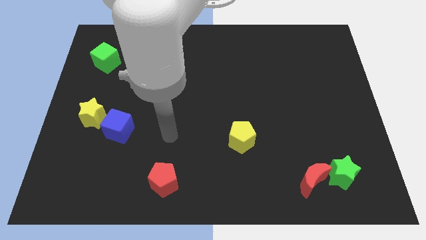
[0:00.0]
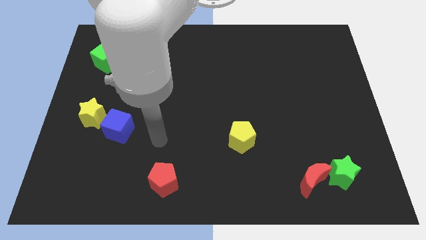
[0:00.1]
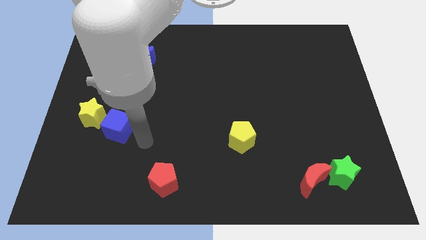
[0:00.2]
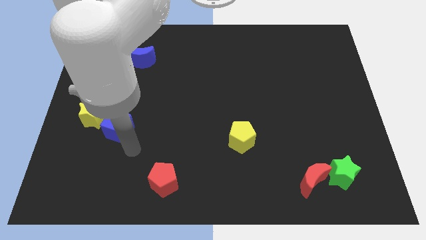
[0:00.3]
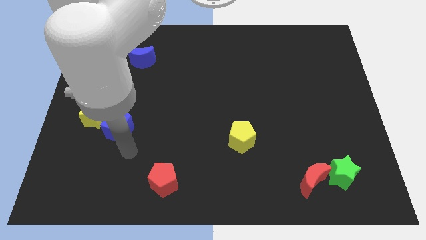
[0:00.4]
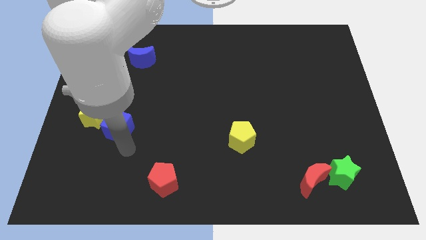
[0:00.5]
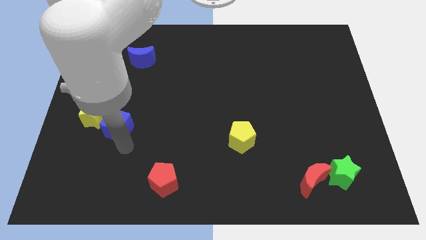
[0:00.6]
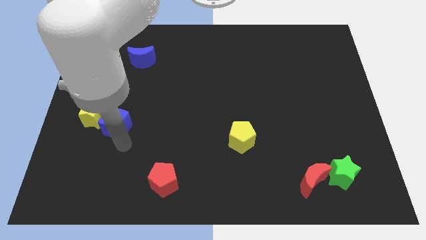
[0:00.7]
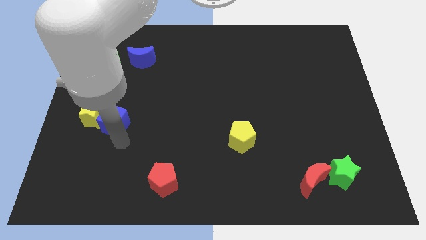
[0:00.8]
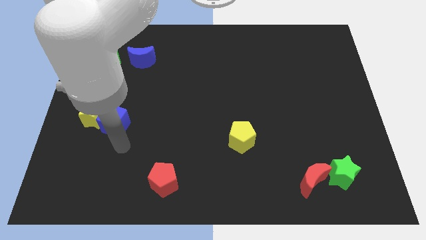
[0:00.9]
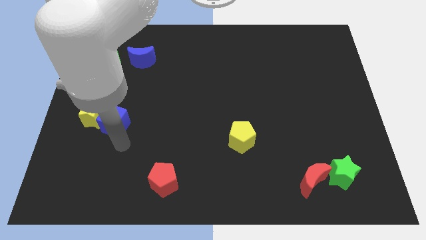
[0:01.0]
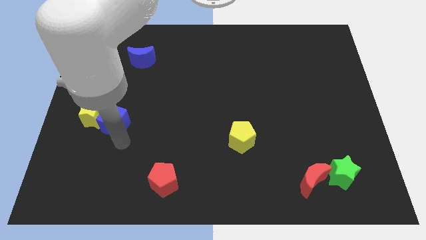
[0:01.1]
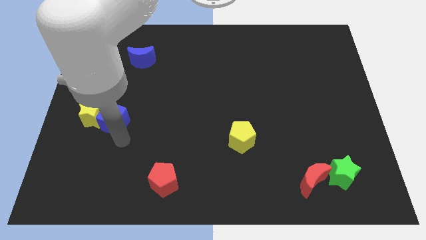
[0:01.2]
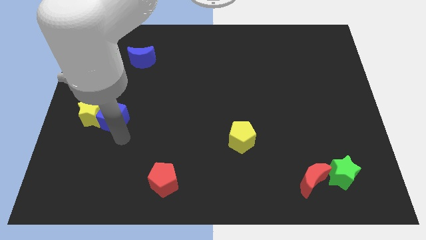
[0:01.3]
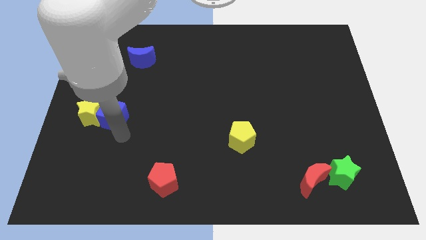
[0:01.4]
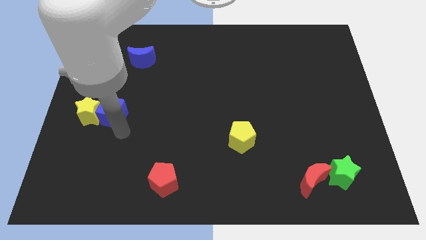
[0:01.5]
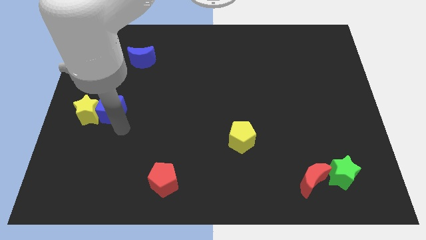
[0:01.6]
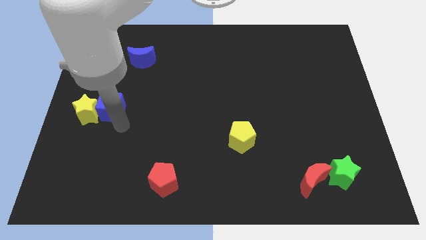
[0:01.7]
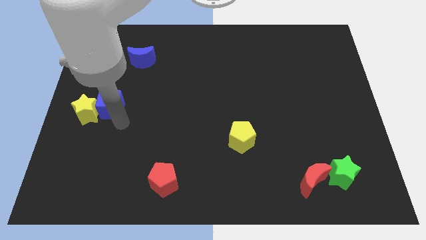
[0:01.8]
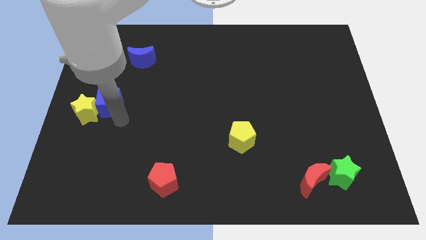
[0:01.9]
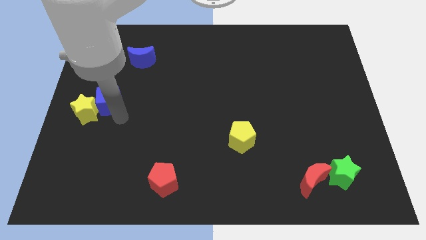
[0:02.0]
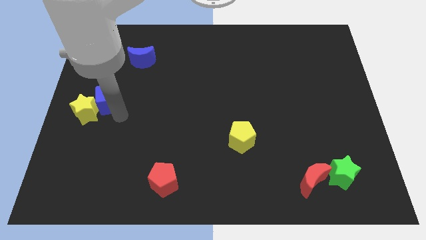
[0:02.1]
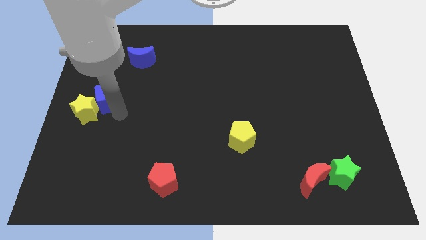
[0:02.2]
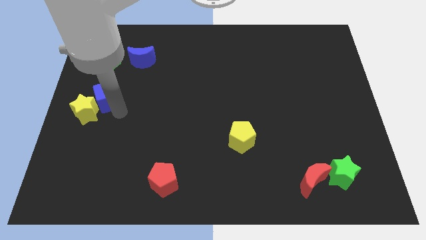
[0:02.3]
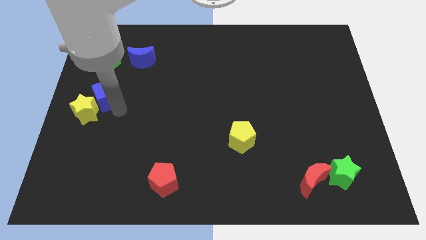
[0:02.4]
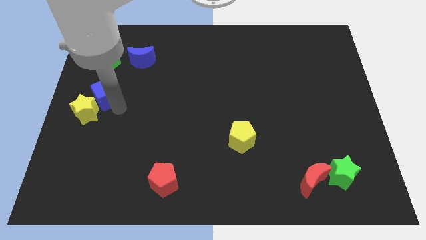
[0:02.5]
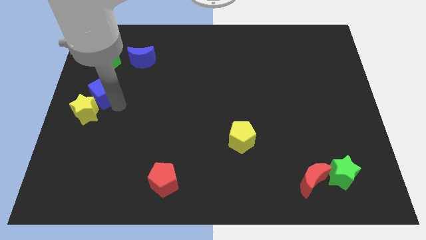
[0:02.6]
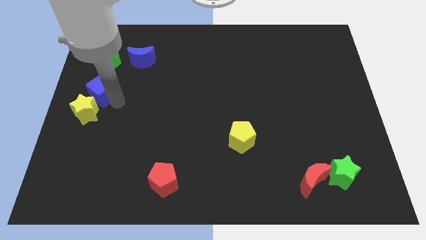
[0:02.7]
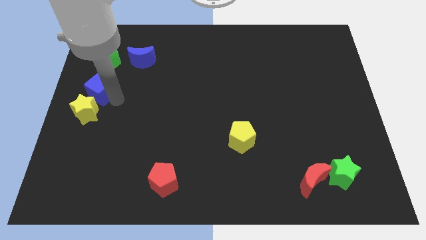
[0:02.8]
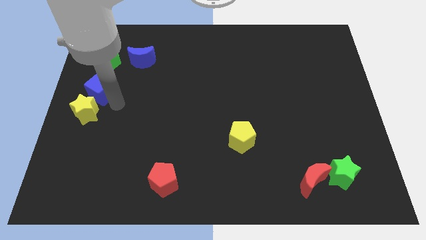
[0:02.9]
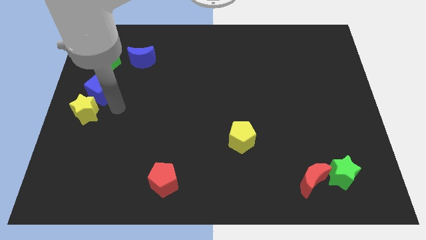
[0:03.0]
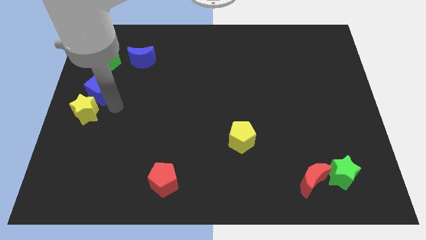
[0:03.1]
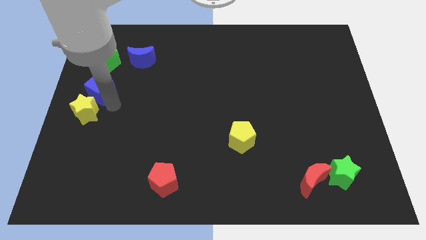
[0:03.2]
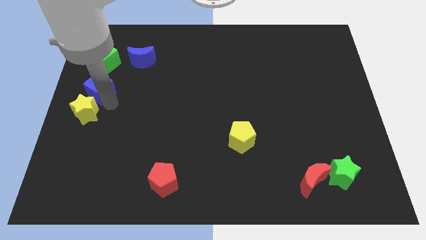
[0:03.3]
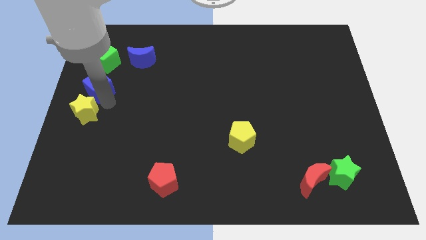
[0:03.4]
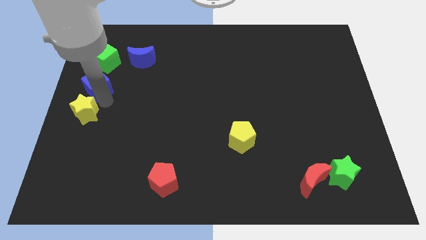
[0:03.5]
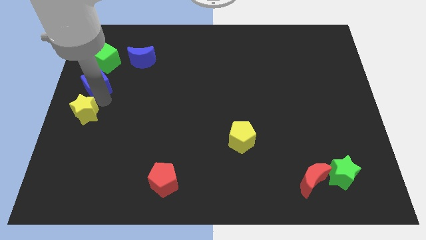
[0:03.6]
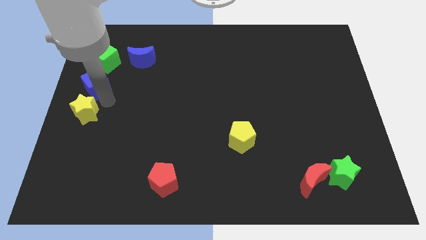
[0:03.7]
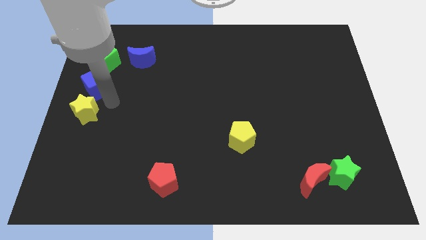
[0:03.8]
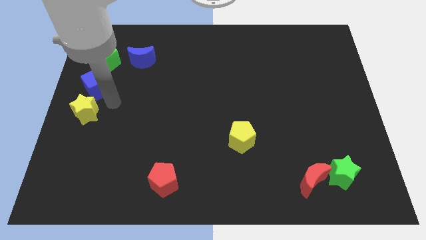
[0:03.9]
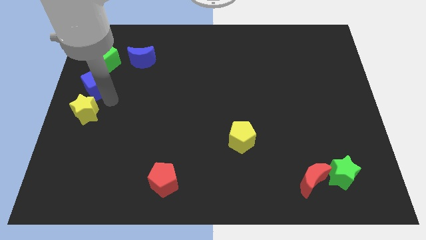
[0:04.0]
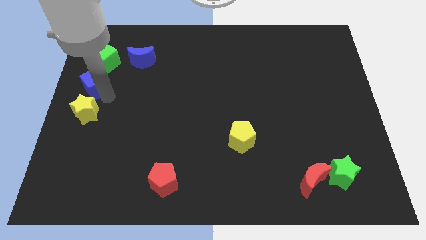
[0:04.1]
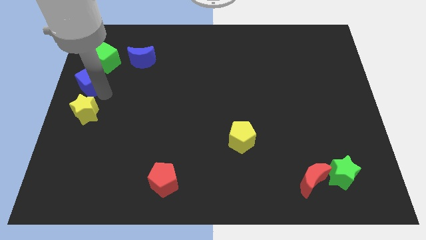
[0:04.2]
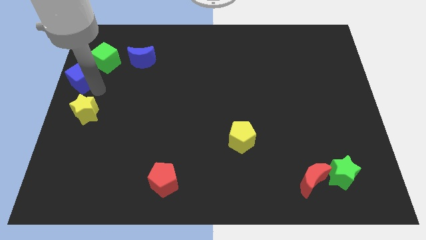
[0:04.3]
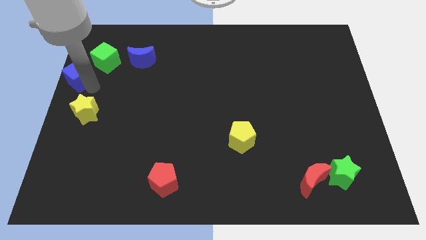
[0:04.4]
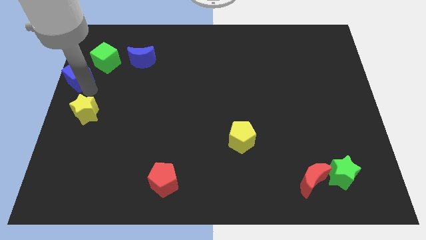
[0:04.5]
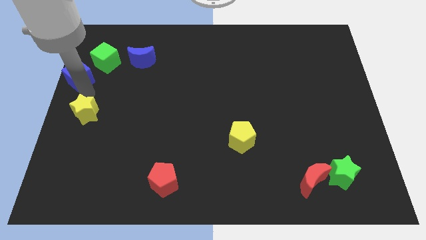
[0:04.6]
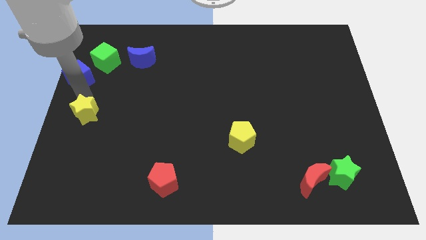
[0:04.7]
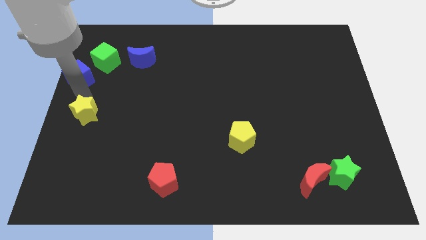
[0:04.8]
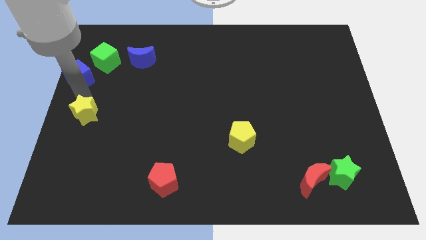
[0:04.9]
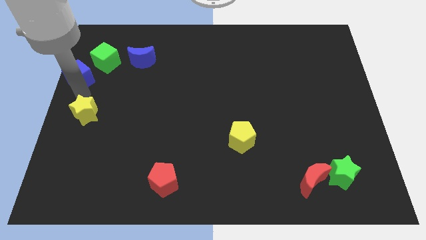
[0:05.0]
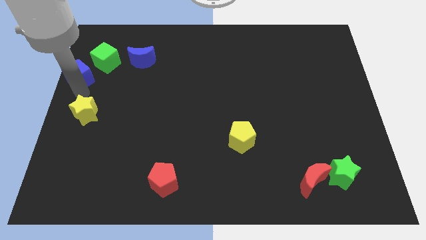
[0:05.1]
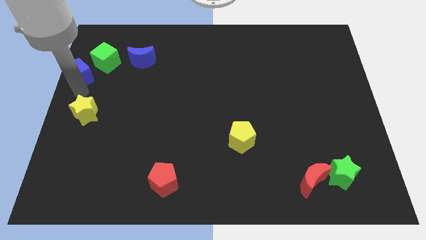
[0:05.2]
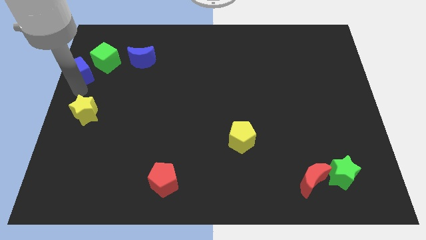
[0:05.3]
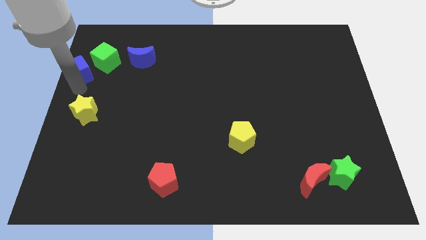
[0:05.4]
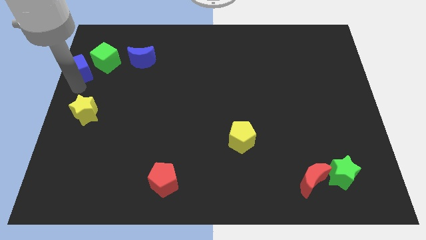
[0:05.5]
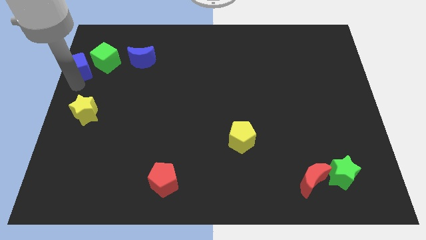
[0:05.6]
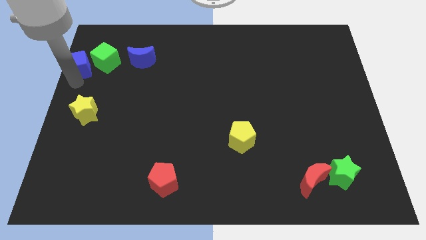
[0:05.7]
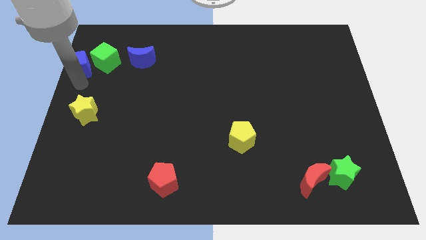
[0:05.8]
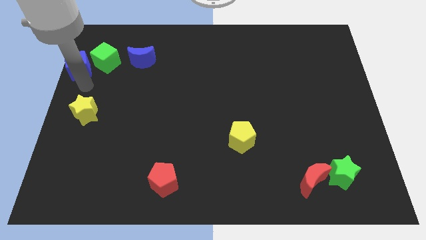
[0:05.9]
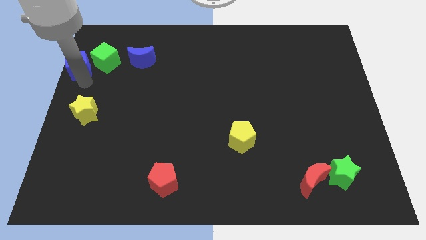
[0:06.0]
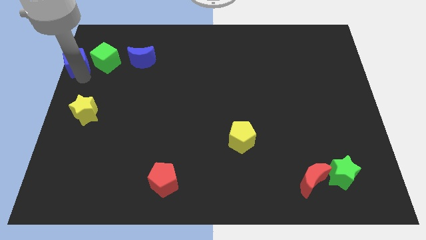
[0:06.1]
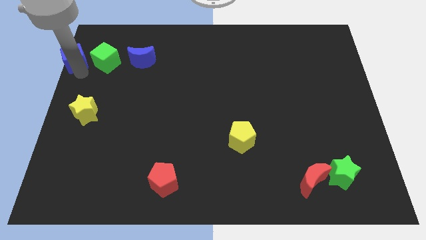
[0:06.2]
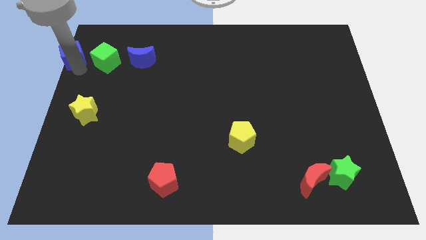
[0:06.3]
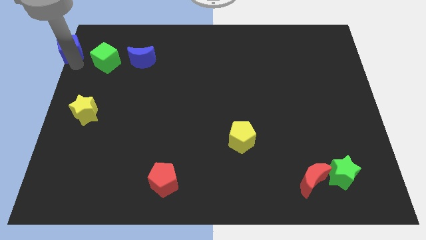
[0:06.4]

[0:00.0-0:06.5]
put the blue cube to the upper left corner
